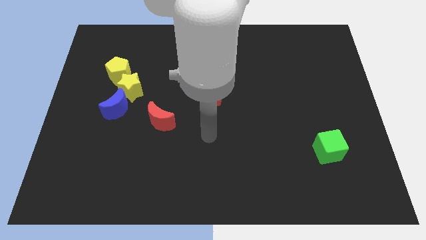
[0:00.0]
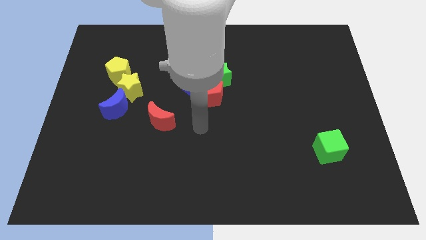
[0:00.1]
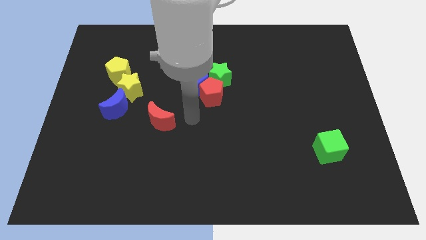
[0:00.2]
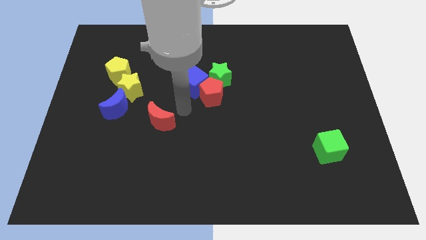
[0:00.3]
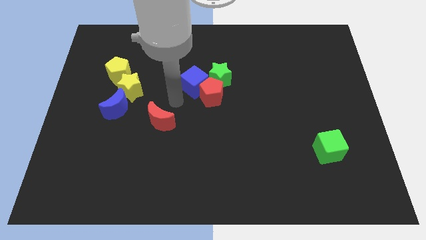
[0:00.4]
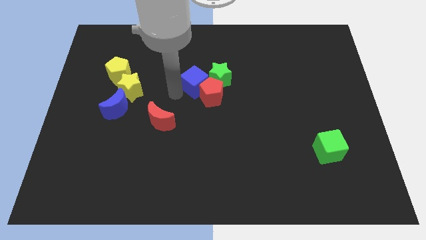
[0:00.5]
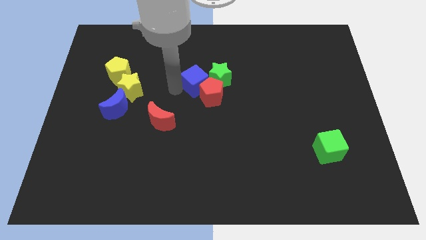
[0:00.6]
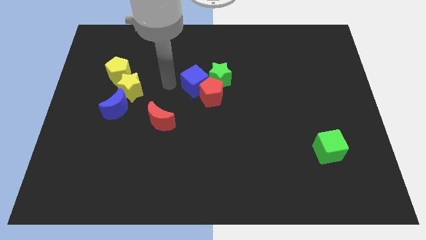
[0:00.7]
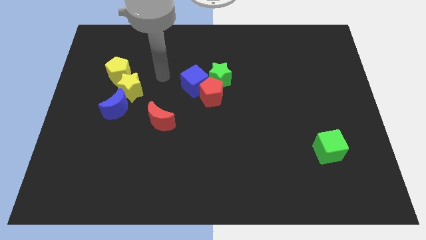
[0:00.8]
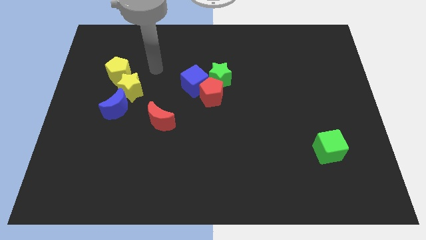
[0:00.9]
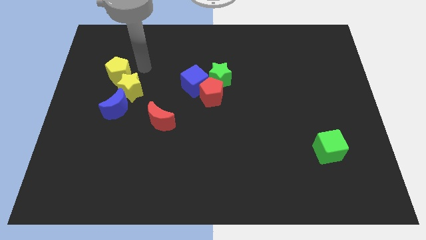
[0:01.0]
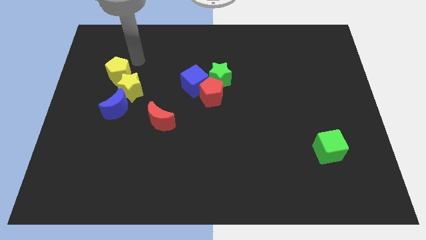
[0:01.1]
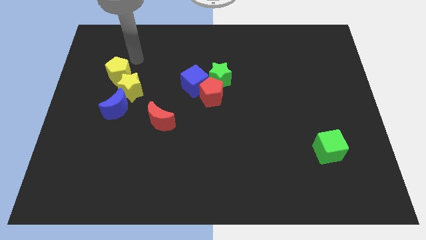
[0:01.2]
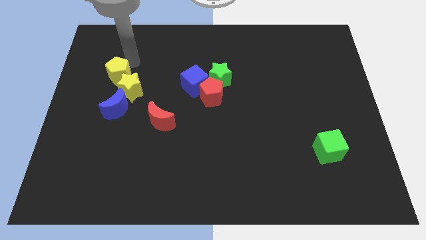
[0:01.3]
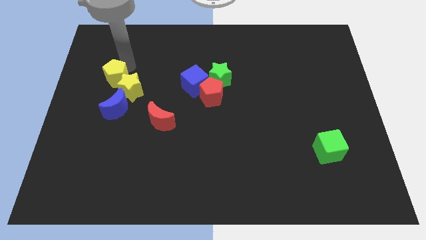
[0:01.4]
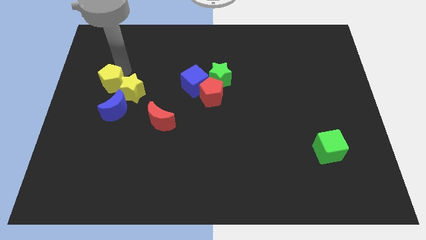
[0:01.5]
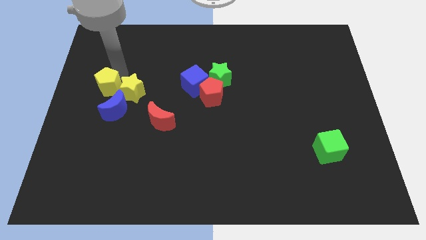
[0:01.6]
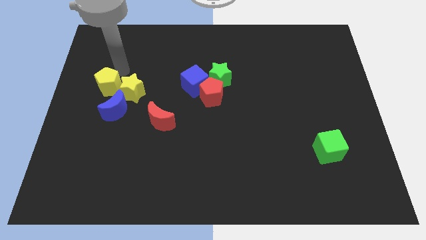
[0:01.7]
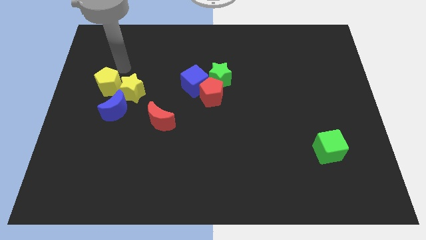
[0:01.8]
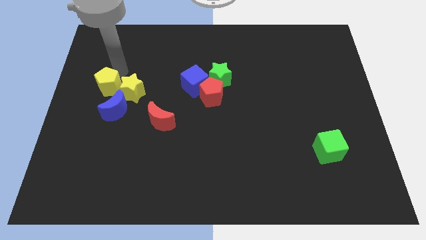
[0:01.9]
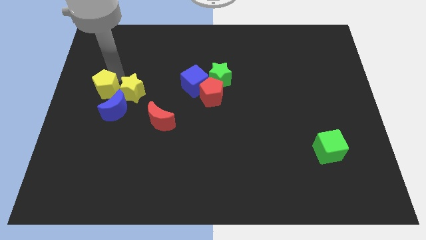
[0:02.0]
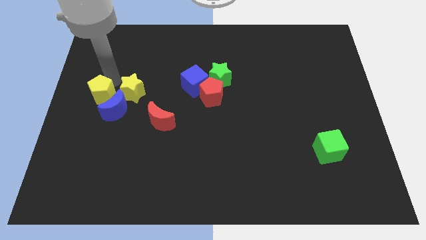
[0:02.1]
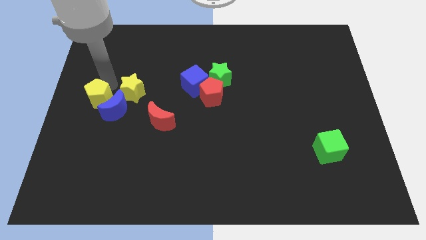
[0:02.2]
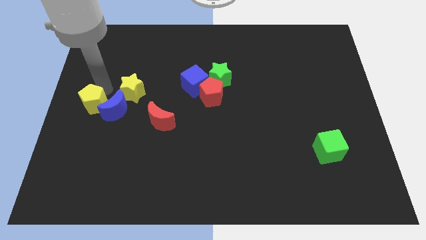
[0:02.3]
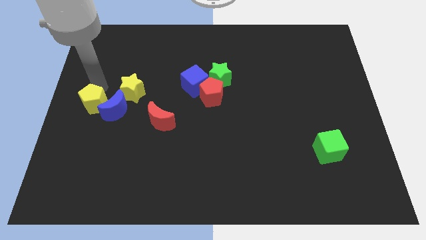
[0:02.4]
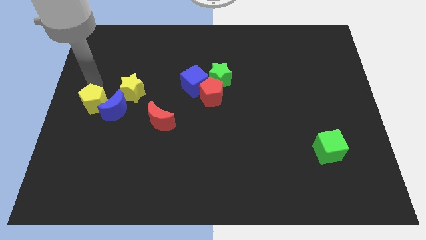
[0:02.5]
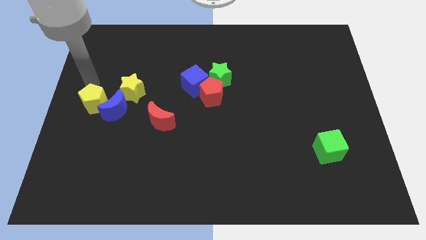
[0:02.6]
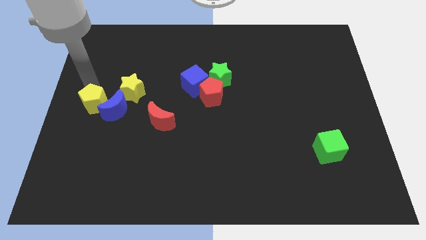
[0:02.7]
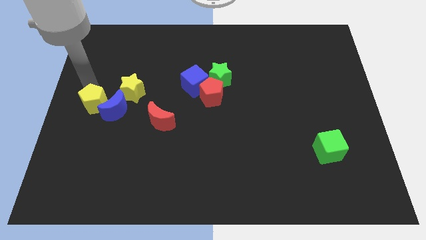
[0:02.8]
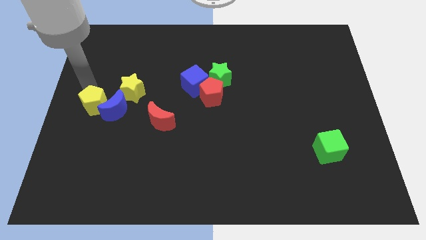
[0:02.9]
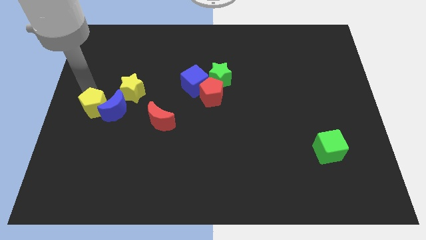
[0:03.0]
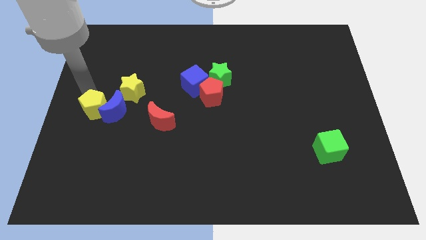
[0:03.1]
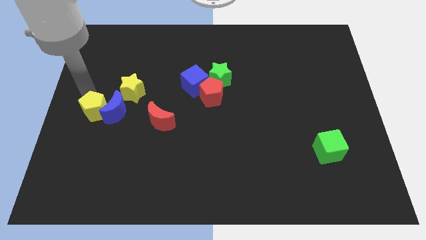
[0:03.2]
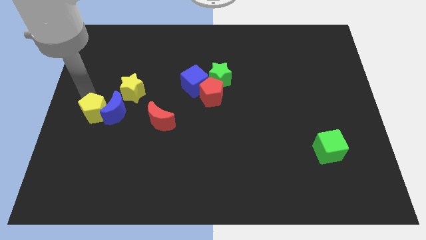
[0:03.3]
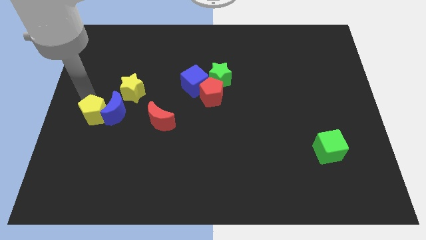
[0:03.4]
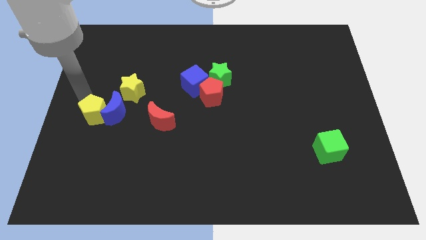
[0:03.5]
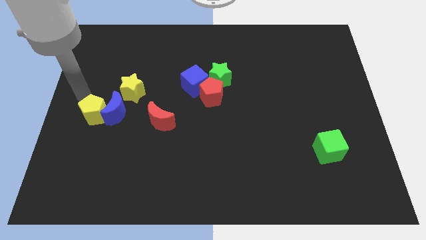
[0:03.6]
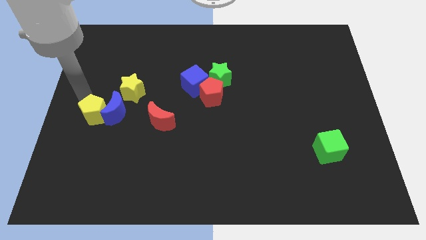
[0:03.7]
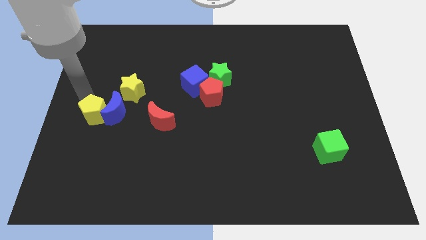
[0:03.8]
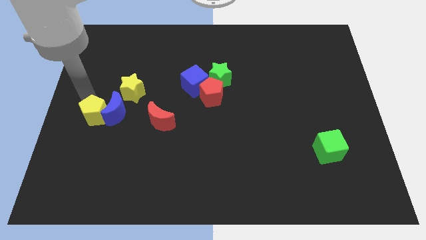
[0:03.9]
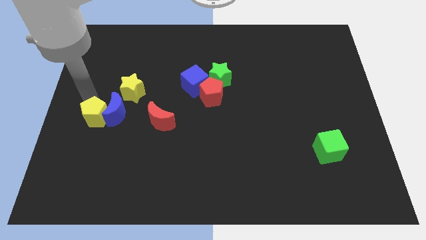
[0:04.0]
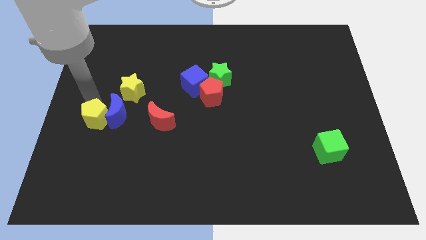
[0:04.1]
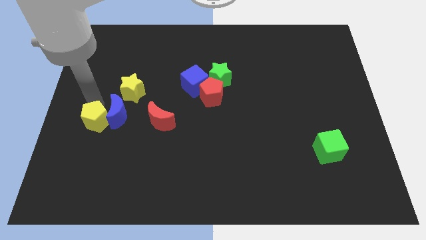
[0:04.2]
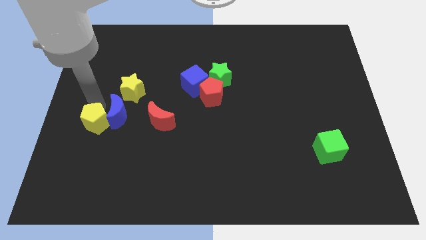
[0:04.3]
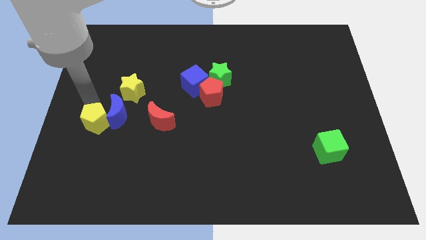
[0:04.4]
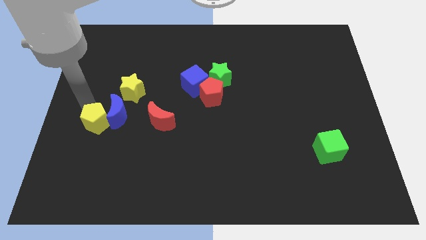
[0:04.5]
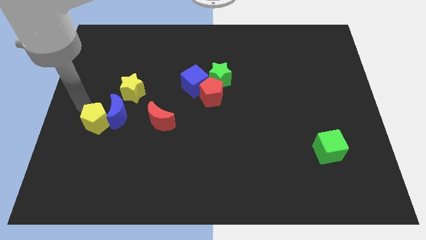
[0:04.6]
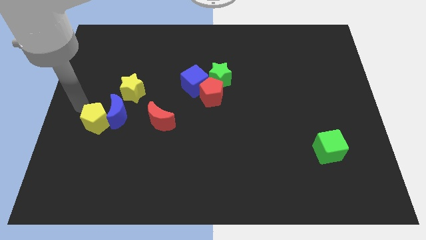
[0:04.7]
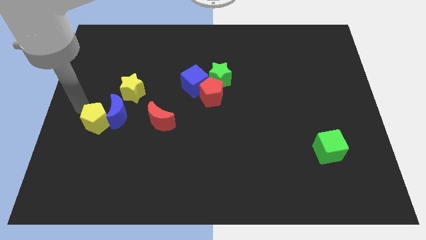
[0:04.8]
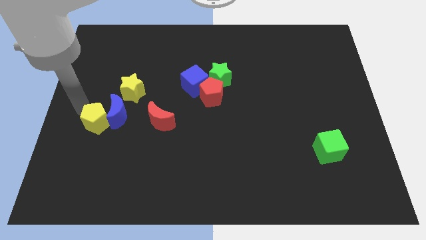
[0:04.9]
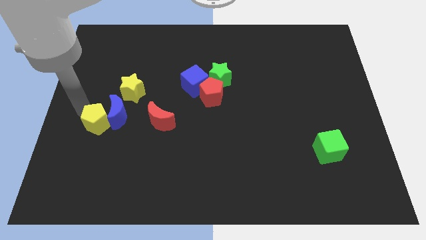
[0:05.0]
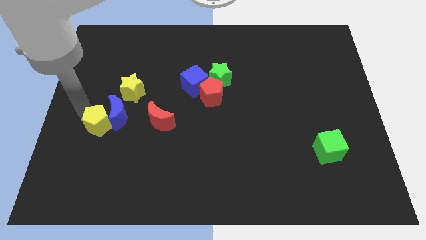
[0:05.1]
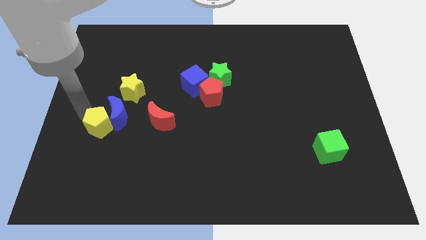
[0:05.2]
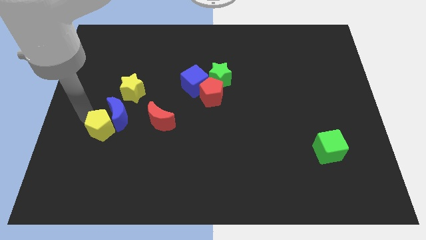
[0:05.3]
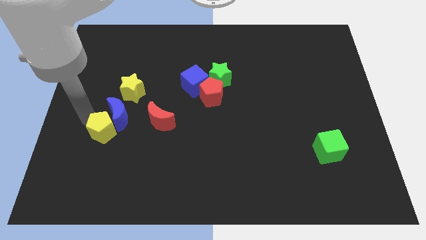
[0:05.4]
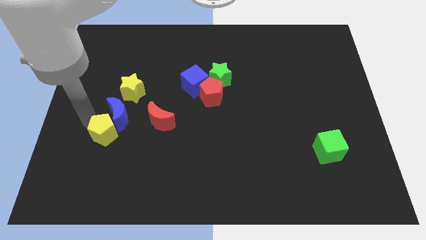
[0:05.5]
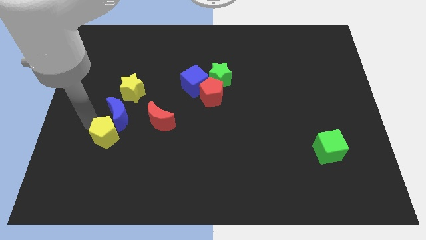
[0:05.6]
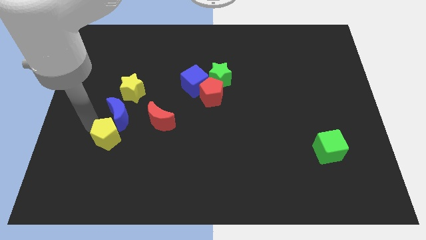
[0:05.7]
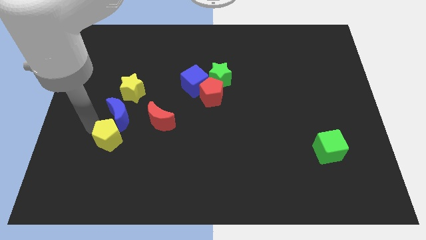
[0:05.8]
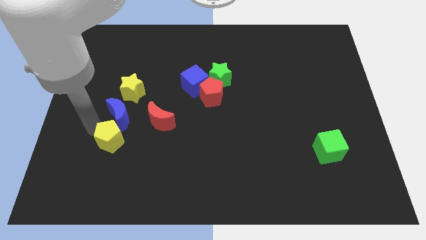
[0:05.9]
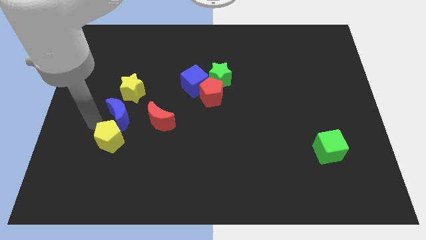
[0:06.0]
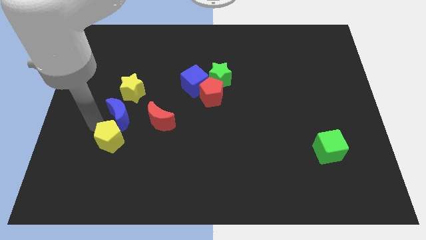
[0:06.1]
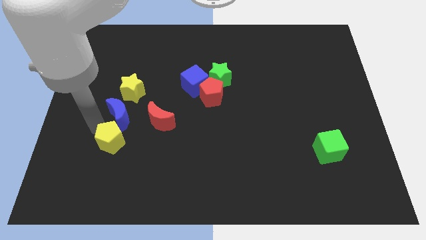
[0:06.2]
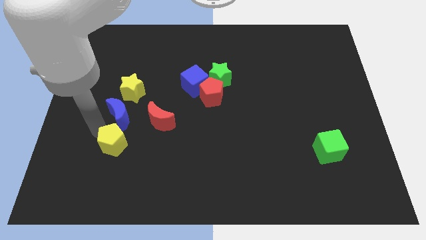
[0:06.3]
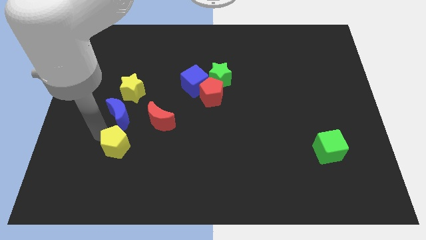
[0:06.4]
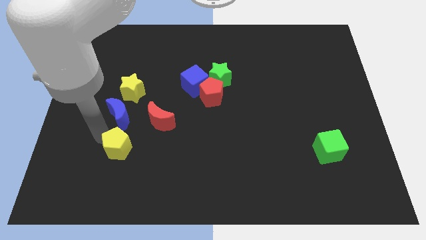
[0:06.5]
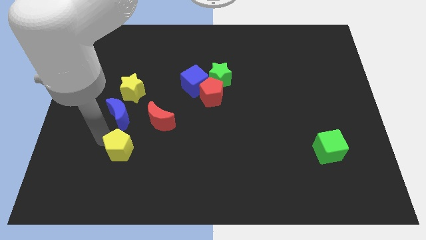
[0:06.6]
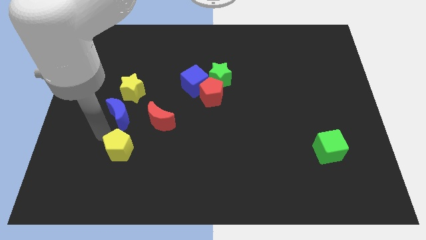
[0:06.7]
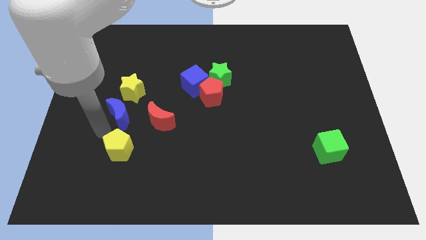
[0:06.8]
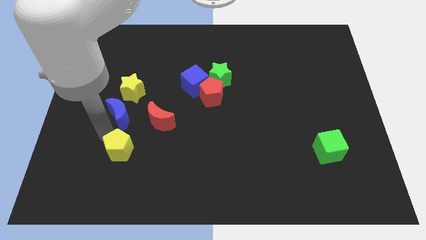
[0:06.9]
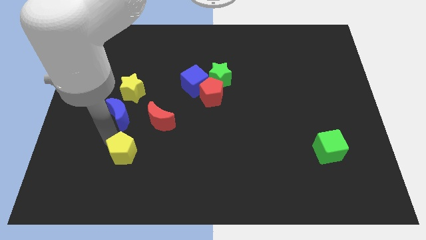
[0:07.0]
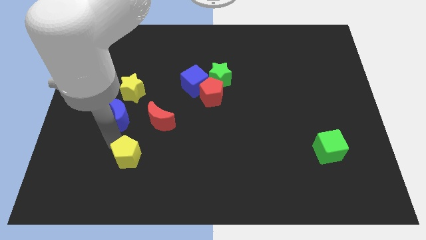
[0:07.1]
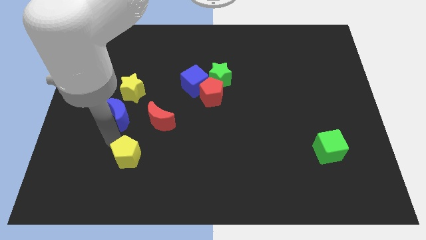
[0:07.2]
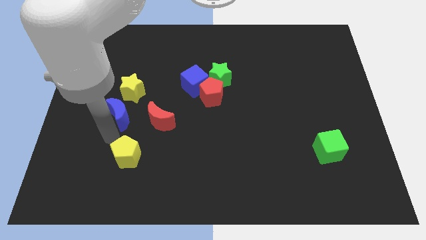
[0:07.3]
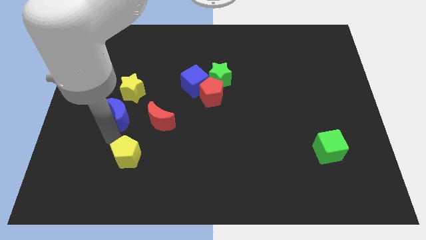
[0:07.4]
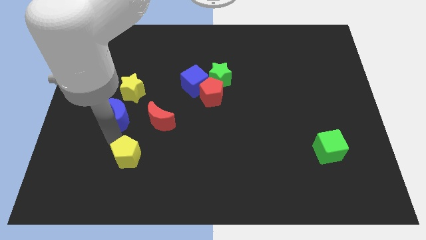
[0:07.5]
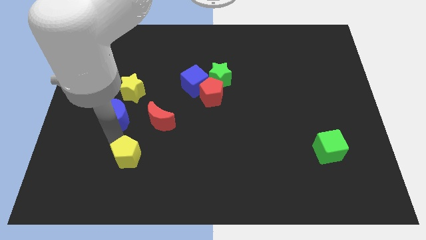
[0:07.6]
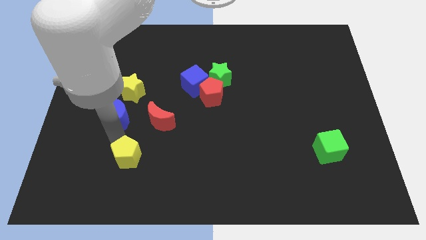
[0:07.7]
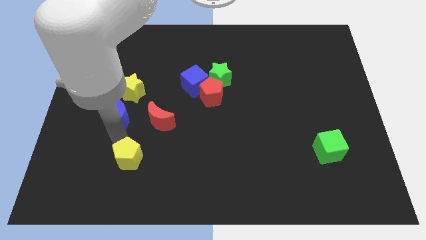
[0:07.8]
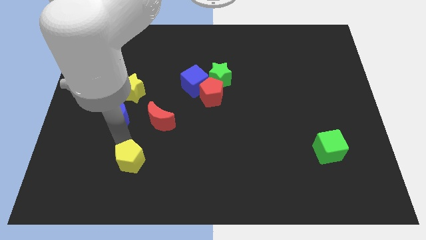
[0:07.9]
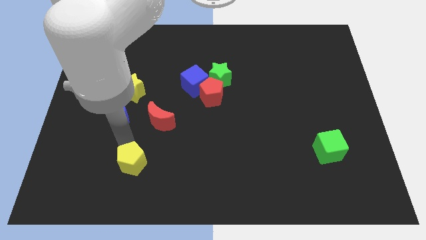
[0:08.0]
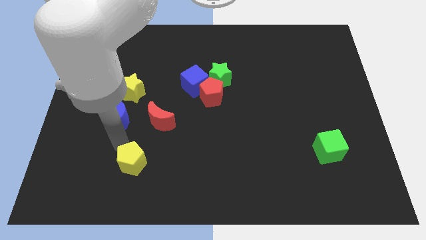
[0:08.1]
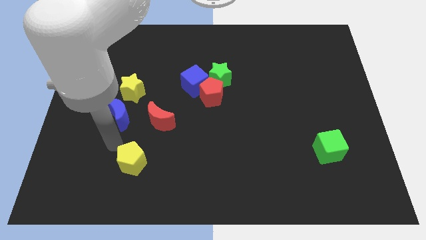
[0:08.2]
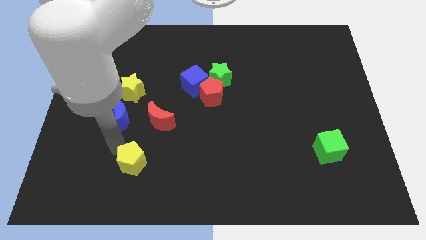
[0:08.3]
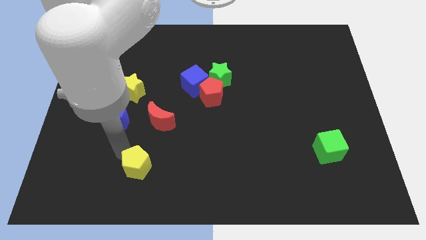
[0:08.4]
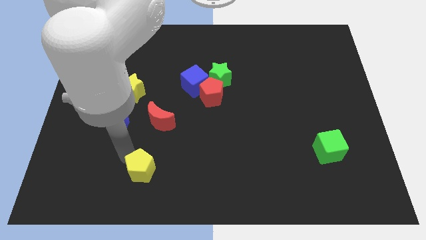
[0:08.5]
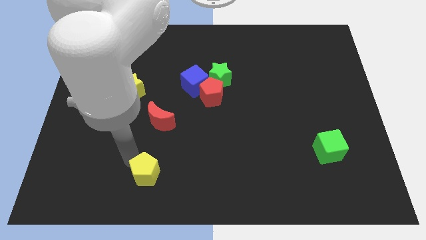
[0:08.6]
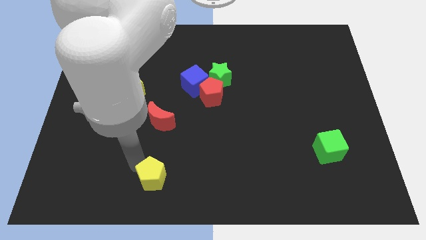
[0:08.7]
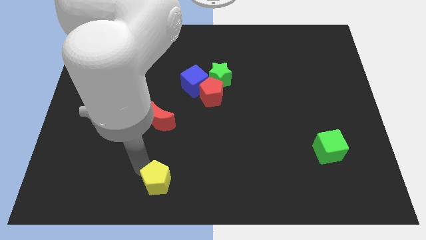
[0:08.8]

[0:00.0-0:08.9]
put the yellow pentagon to the bottom side
